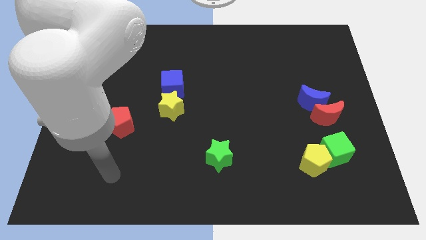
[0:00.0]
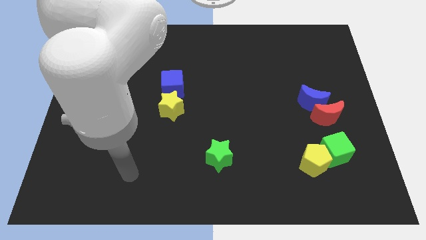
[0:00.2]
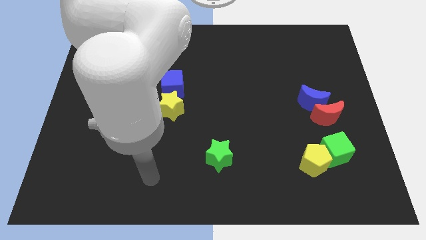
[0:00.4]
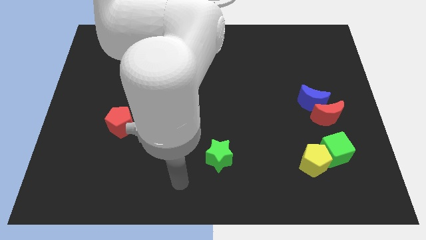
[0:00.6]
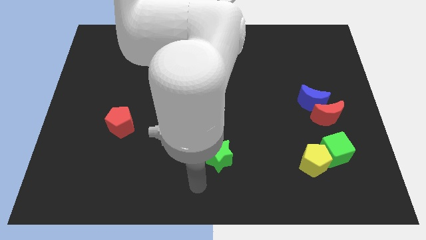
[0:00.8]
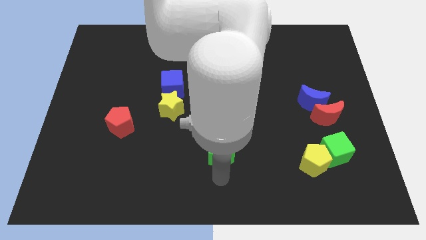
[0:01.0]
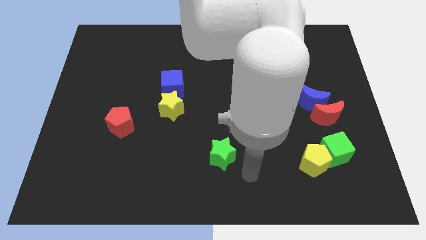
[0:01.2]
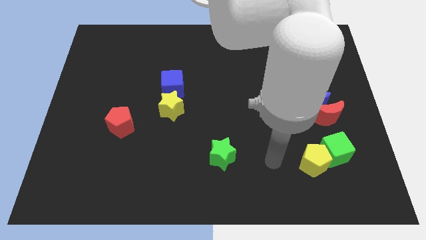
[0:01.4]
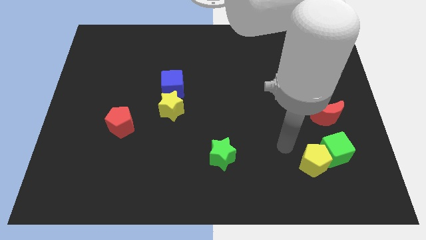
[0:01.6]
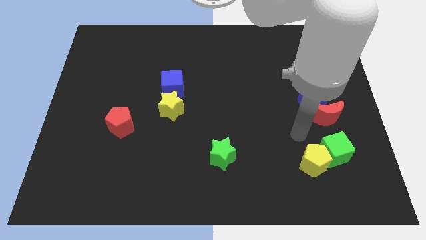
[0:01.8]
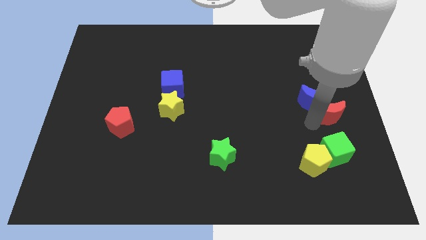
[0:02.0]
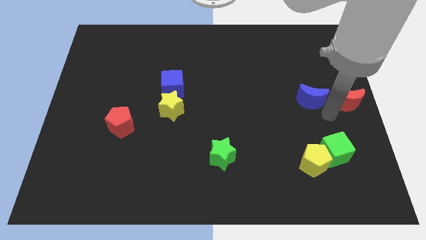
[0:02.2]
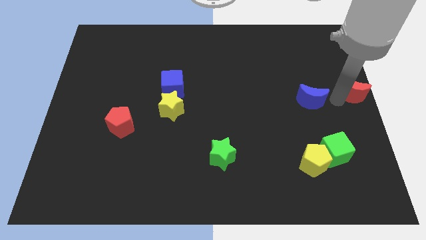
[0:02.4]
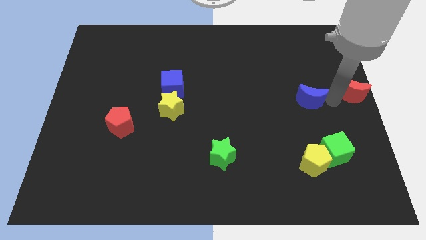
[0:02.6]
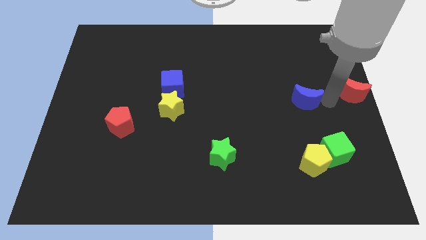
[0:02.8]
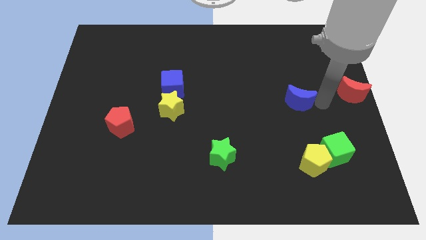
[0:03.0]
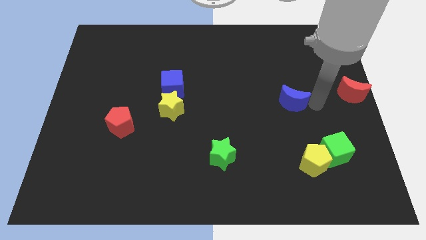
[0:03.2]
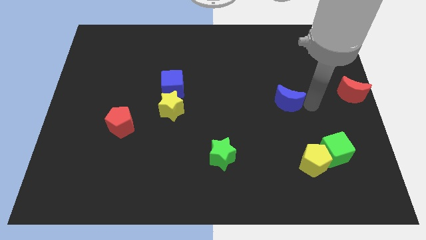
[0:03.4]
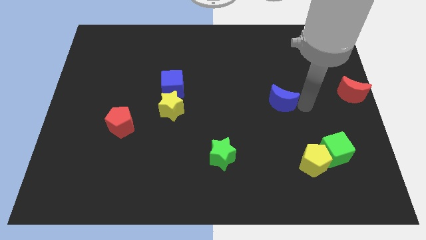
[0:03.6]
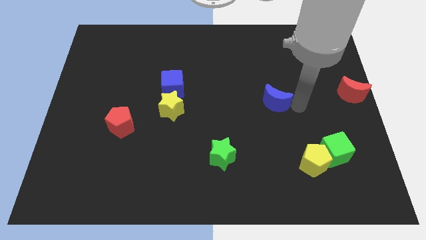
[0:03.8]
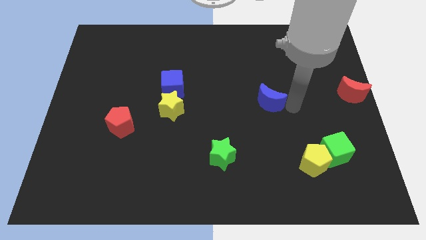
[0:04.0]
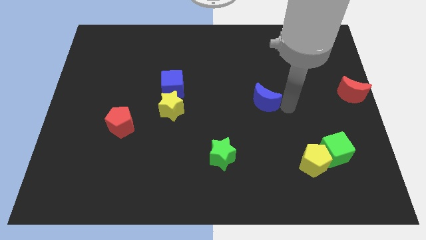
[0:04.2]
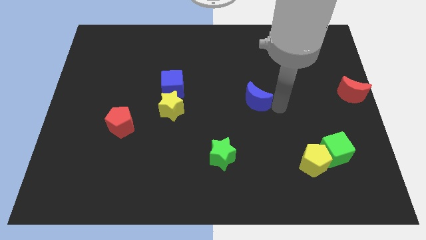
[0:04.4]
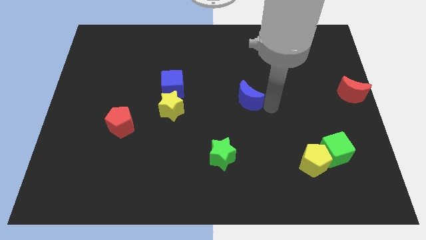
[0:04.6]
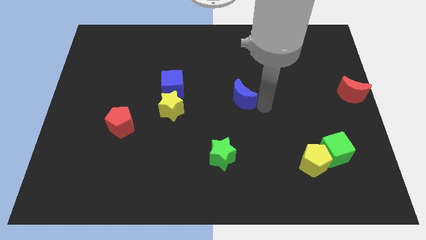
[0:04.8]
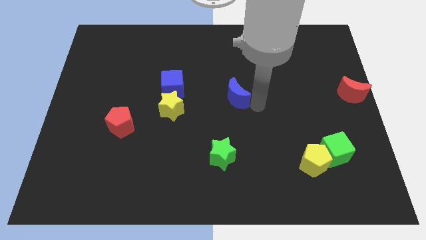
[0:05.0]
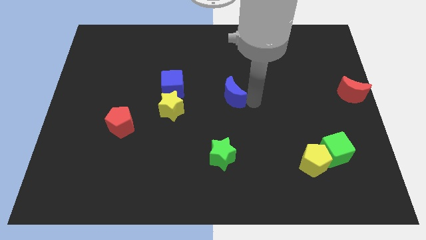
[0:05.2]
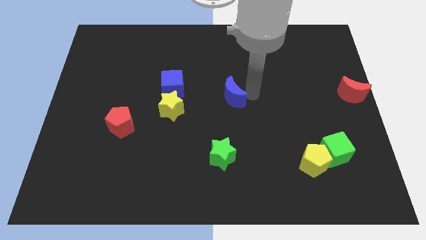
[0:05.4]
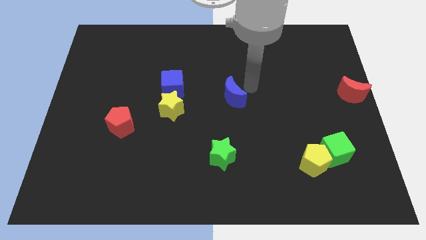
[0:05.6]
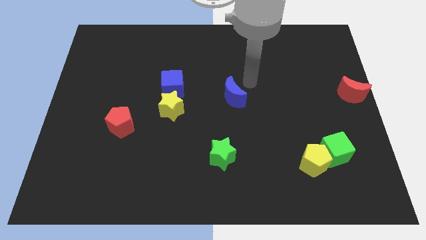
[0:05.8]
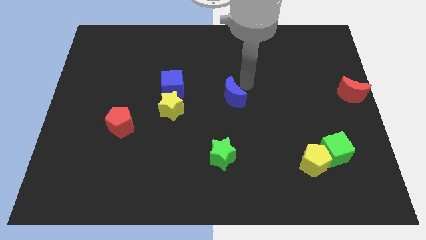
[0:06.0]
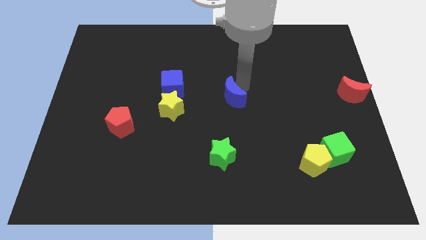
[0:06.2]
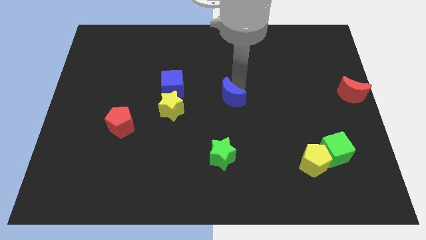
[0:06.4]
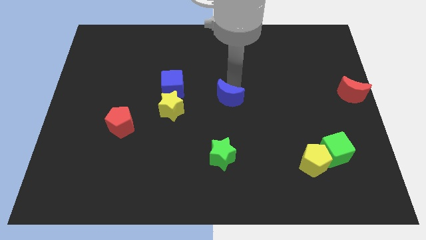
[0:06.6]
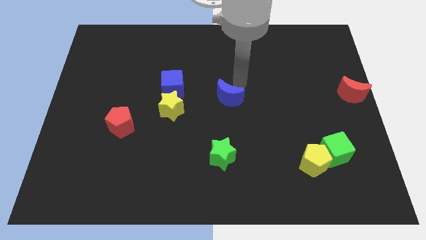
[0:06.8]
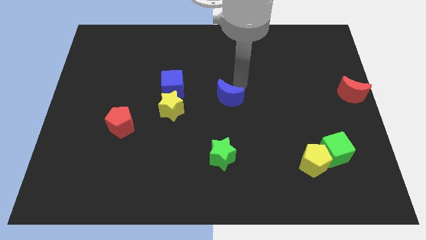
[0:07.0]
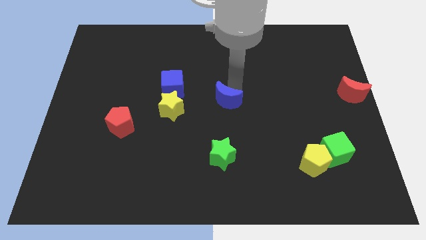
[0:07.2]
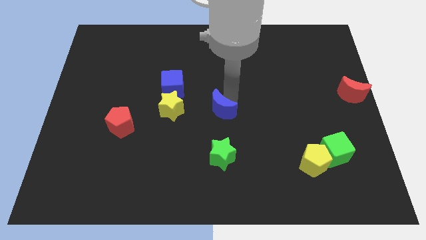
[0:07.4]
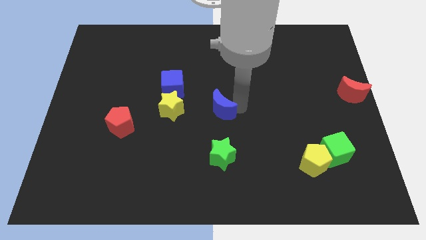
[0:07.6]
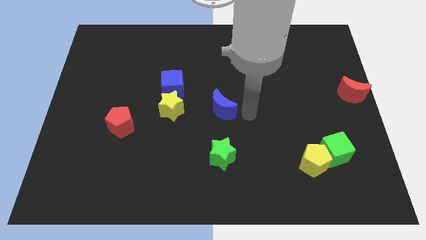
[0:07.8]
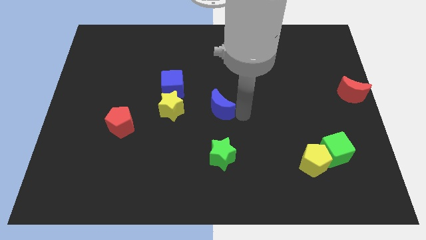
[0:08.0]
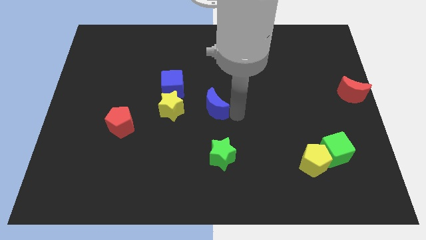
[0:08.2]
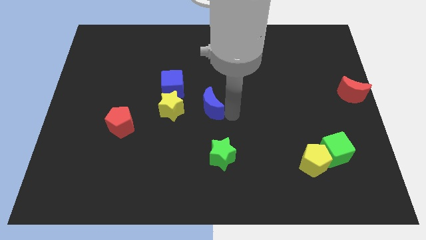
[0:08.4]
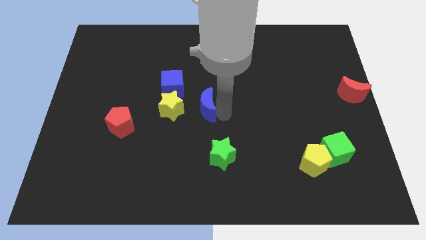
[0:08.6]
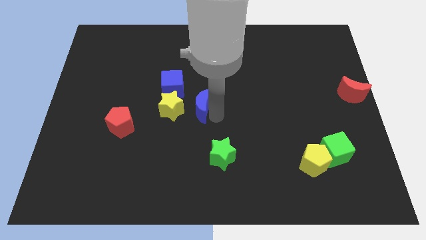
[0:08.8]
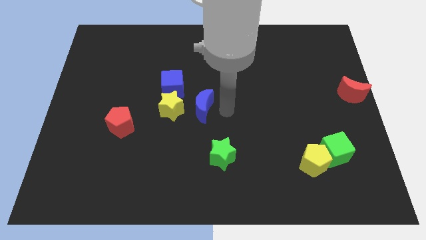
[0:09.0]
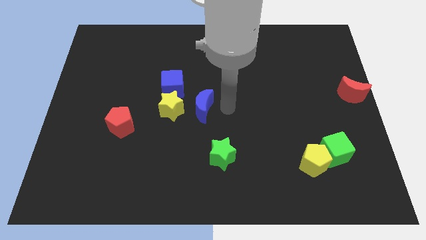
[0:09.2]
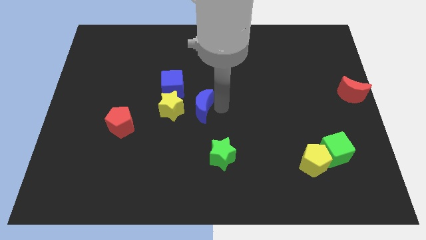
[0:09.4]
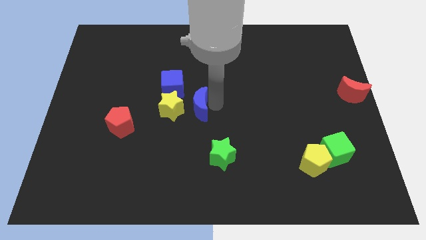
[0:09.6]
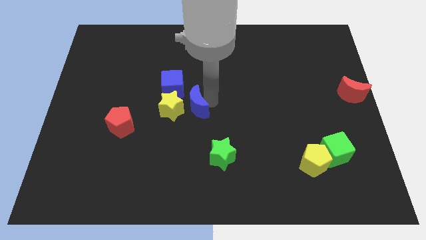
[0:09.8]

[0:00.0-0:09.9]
put the blue moon towards the yellow star

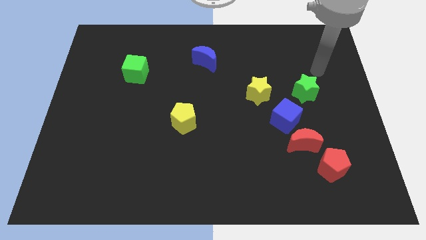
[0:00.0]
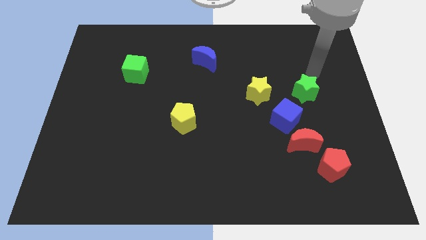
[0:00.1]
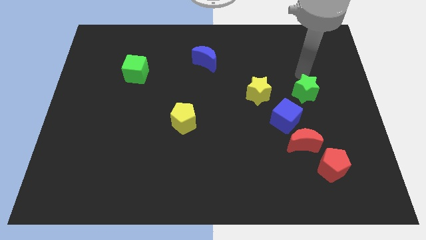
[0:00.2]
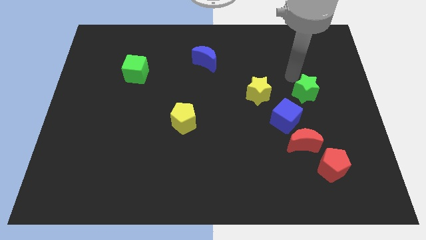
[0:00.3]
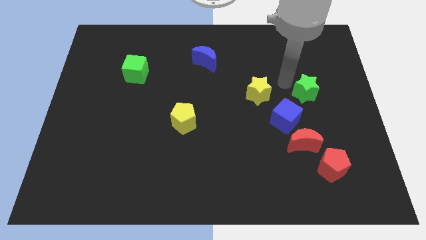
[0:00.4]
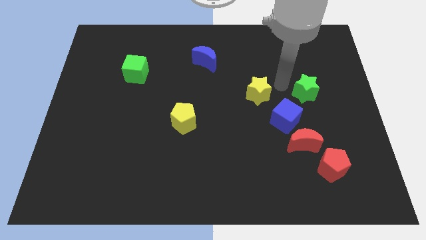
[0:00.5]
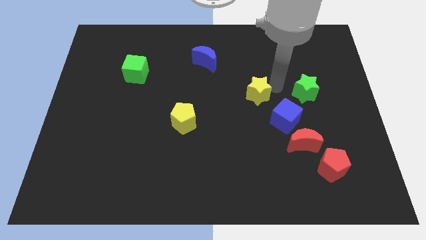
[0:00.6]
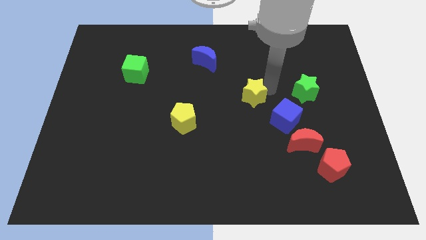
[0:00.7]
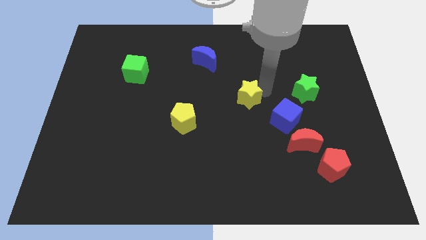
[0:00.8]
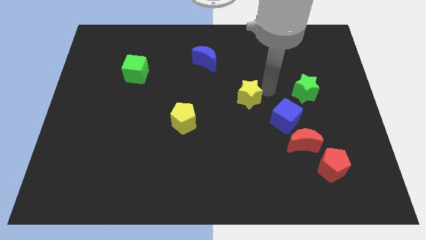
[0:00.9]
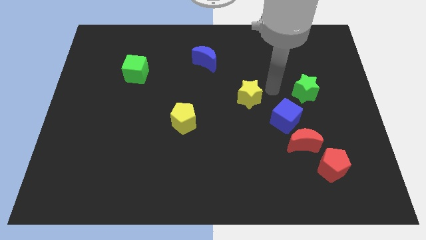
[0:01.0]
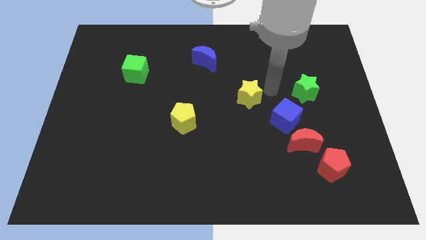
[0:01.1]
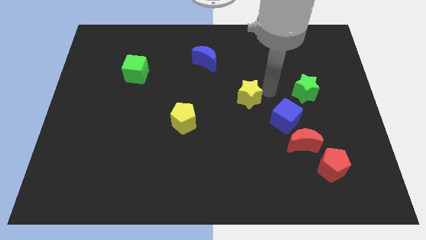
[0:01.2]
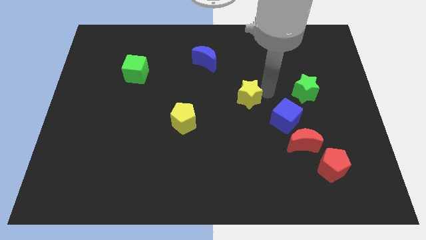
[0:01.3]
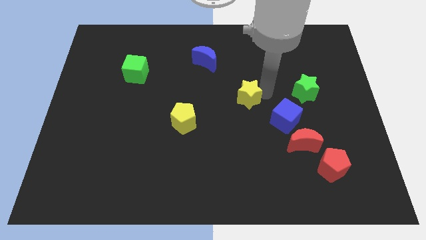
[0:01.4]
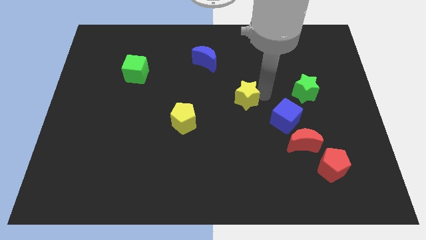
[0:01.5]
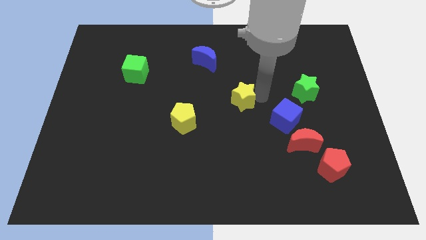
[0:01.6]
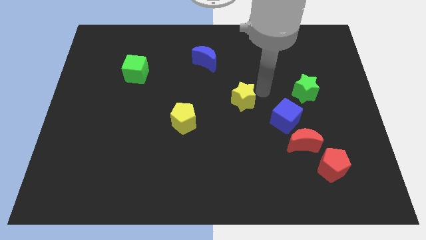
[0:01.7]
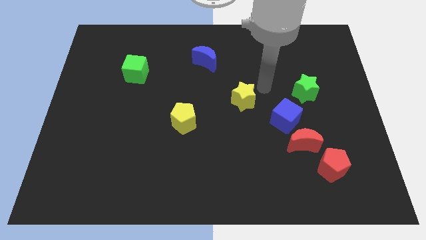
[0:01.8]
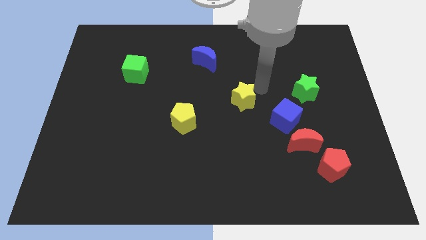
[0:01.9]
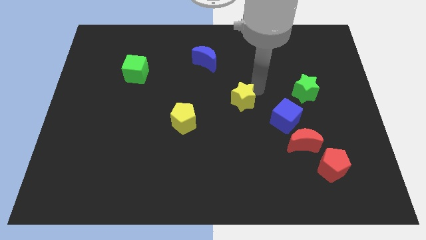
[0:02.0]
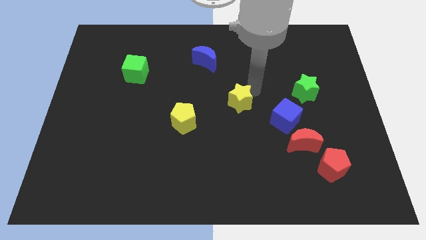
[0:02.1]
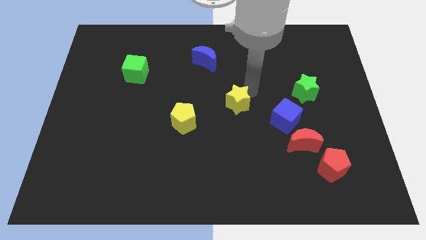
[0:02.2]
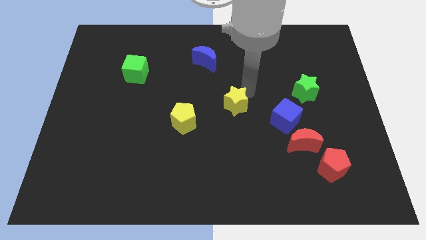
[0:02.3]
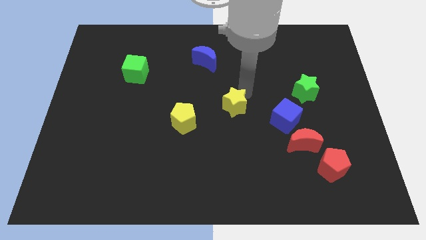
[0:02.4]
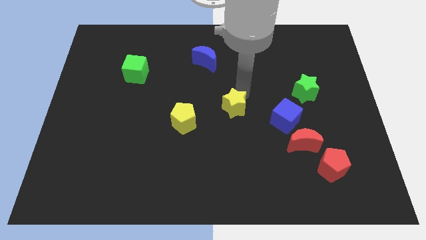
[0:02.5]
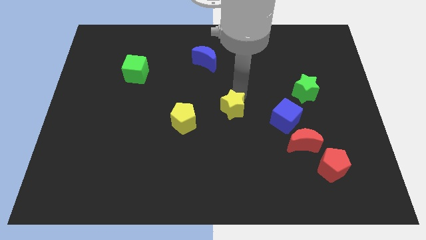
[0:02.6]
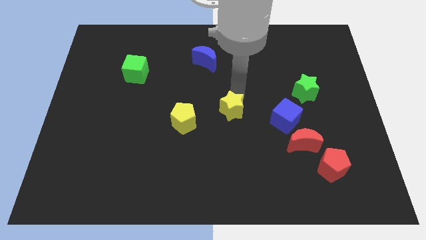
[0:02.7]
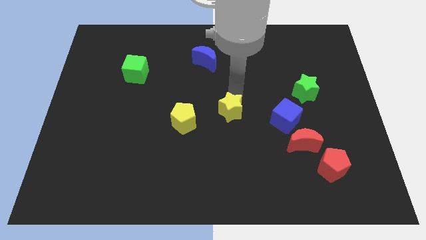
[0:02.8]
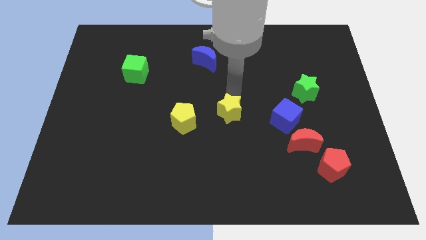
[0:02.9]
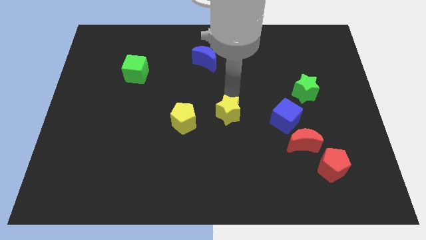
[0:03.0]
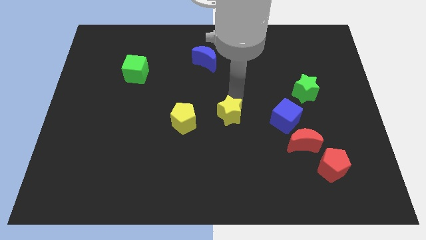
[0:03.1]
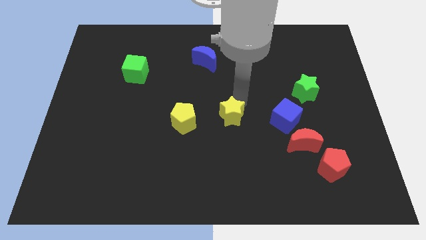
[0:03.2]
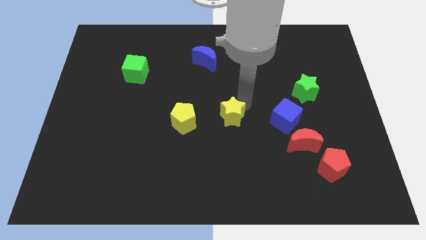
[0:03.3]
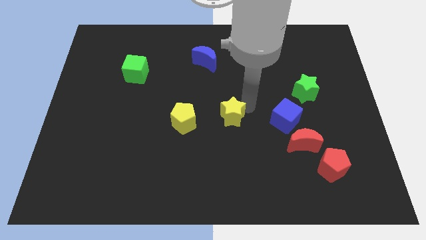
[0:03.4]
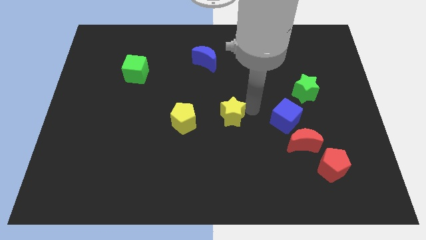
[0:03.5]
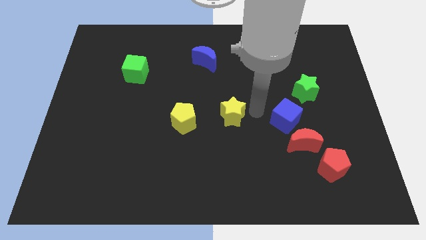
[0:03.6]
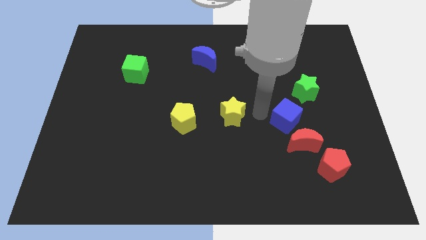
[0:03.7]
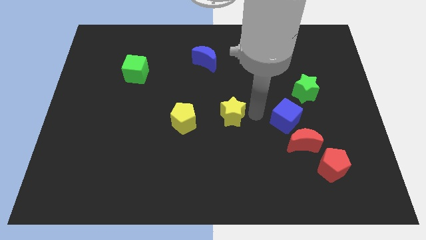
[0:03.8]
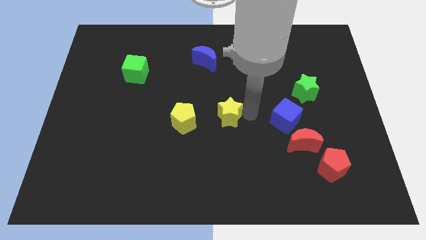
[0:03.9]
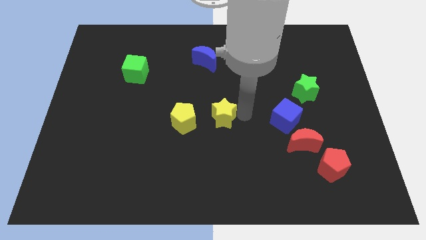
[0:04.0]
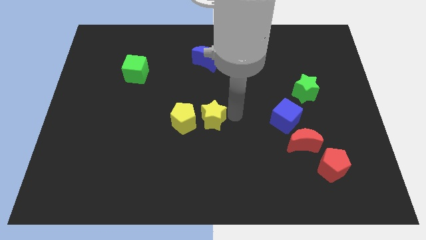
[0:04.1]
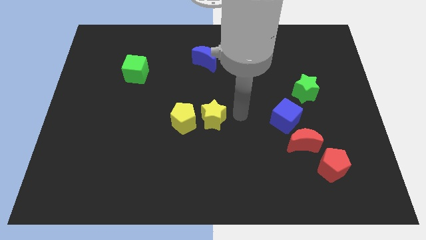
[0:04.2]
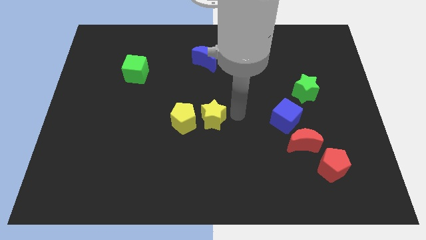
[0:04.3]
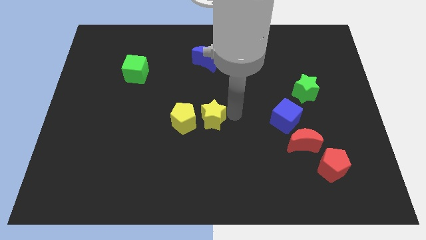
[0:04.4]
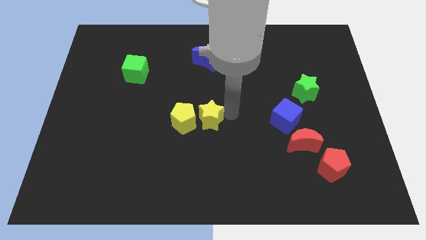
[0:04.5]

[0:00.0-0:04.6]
put the yellow star close to the yellow pentagon
